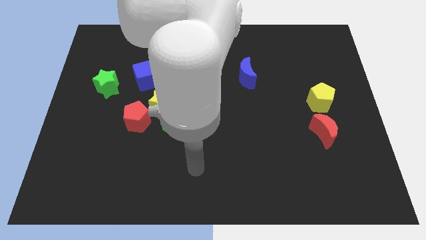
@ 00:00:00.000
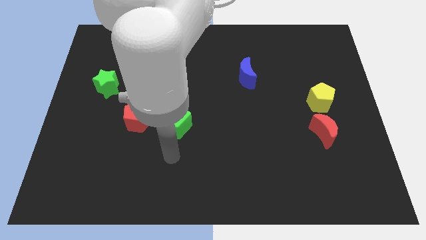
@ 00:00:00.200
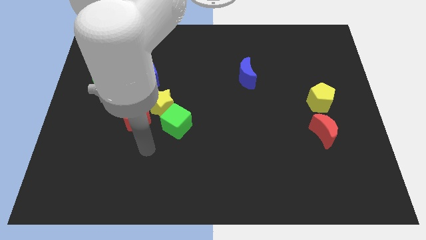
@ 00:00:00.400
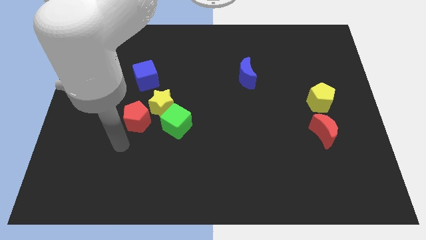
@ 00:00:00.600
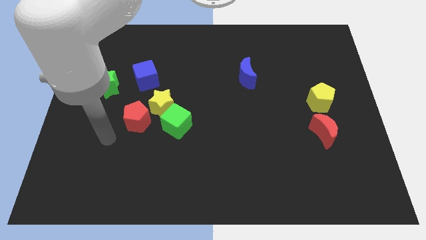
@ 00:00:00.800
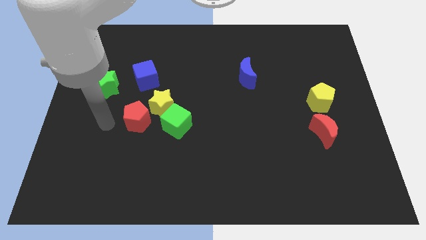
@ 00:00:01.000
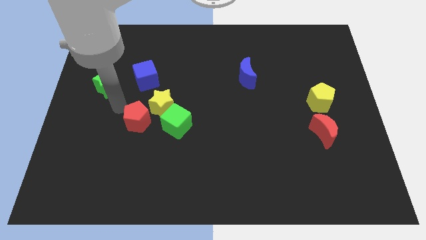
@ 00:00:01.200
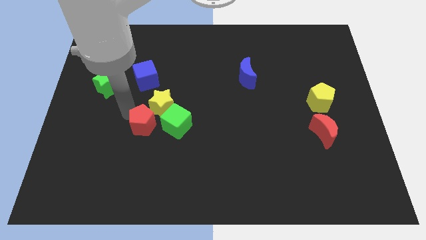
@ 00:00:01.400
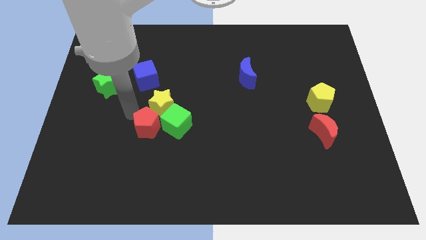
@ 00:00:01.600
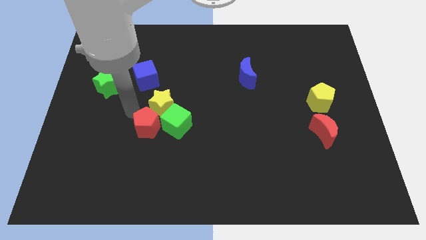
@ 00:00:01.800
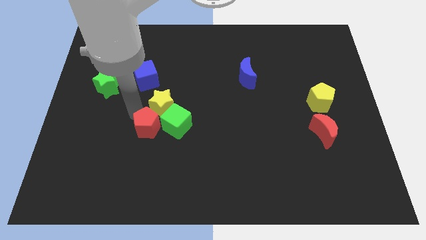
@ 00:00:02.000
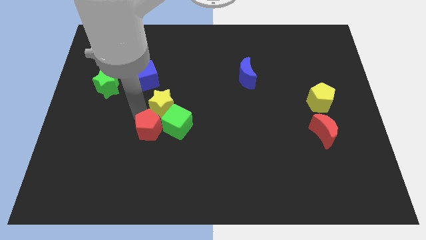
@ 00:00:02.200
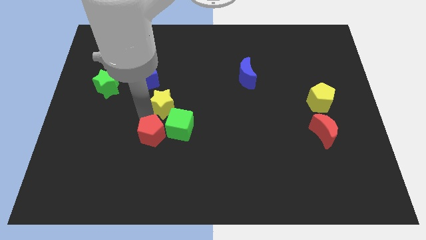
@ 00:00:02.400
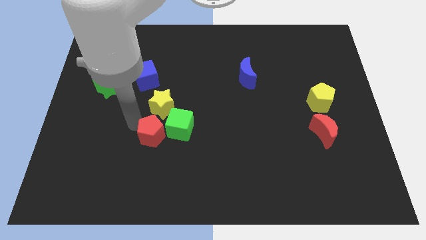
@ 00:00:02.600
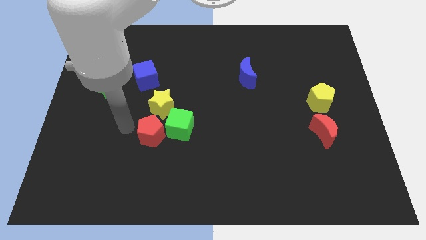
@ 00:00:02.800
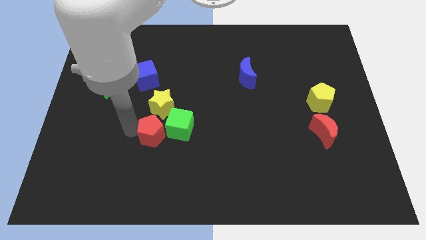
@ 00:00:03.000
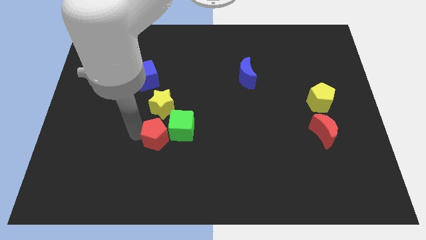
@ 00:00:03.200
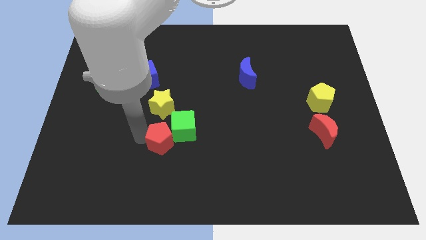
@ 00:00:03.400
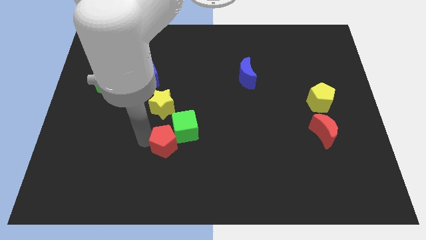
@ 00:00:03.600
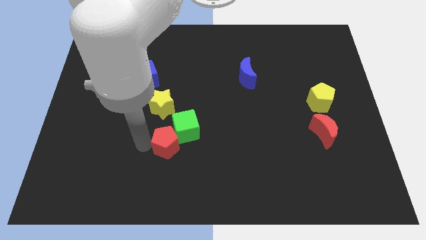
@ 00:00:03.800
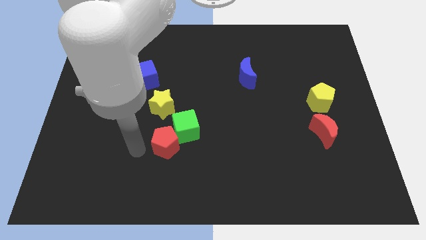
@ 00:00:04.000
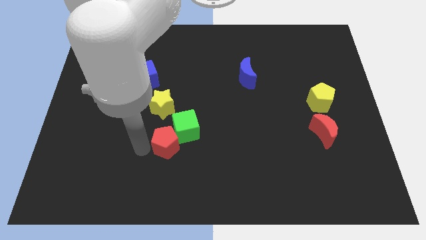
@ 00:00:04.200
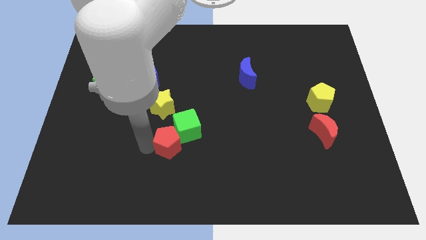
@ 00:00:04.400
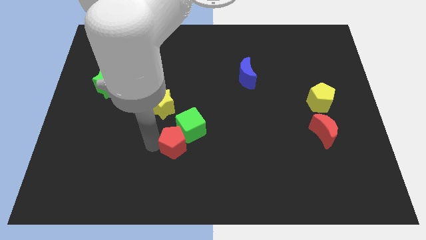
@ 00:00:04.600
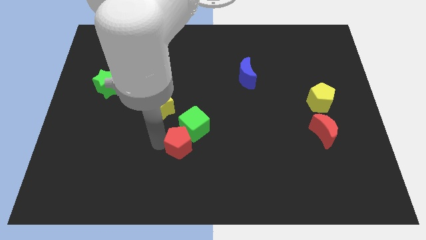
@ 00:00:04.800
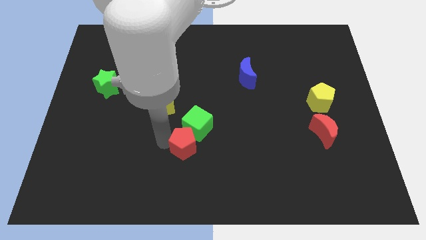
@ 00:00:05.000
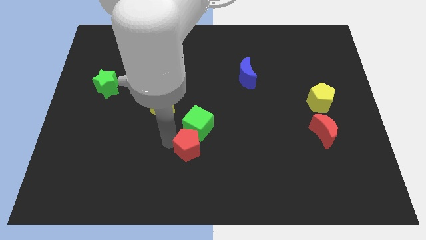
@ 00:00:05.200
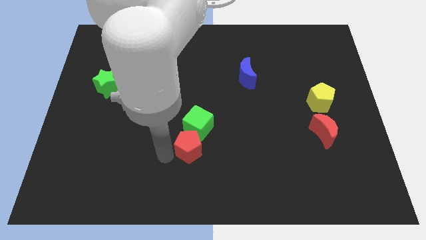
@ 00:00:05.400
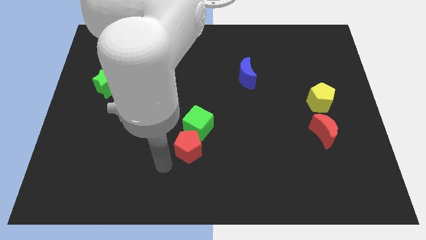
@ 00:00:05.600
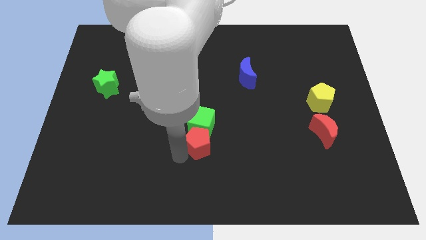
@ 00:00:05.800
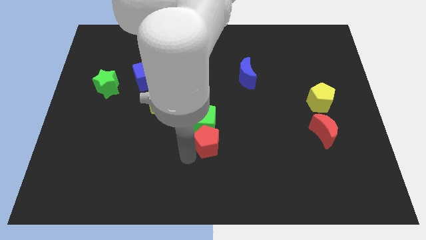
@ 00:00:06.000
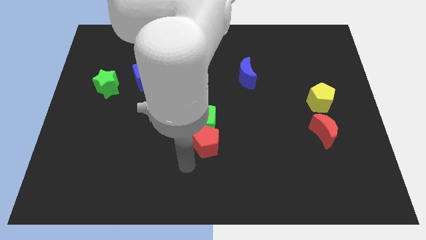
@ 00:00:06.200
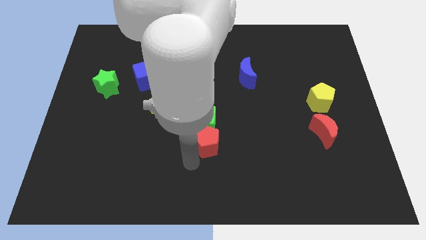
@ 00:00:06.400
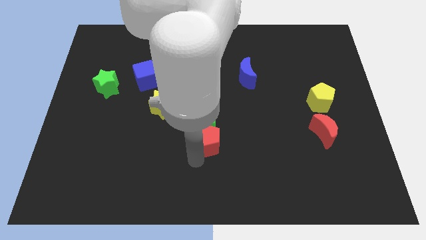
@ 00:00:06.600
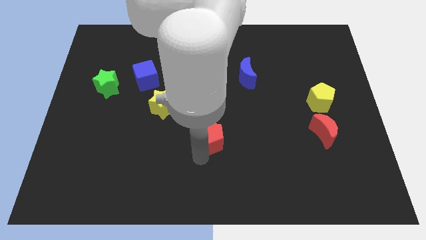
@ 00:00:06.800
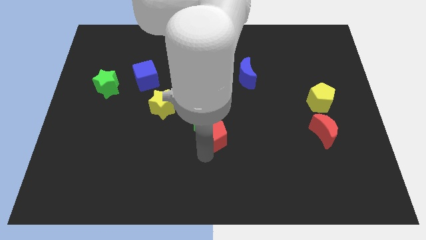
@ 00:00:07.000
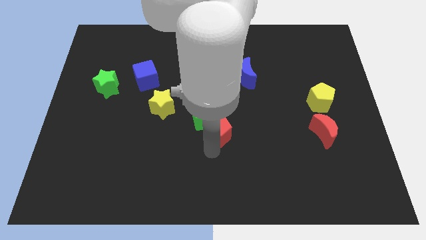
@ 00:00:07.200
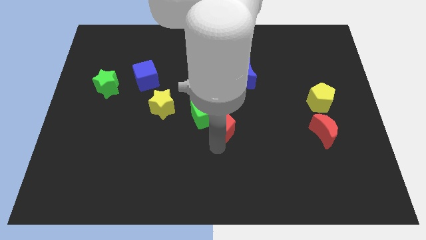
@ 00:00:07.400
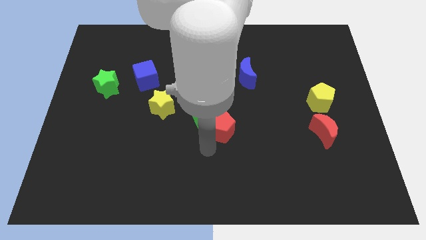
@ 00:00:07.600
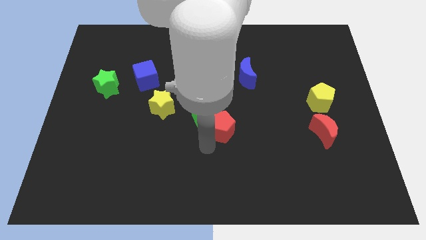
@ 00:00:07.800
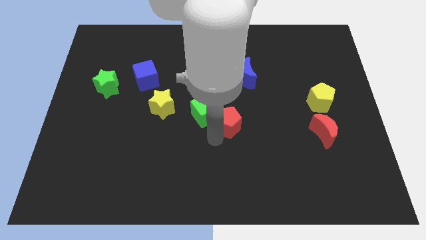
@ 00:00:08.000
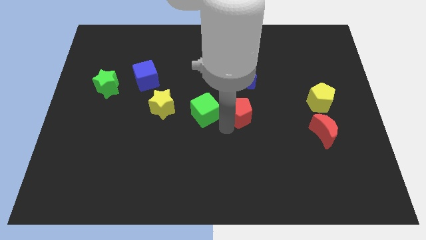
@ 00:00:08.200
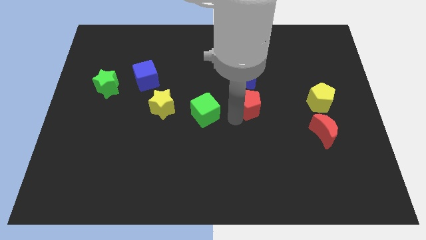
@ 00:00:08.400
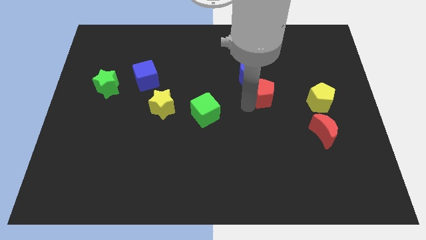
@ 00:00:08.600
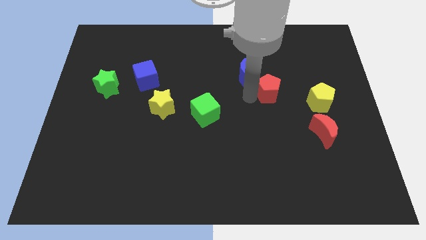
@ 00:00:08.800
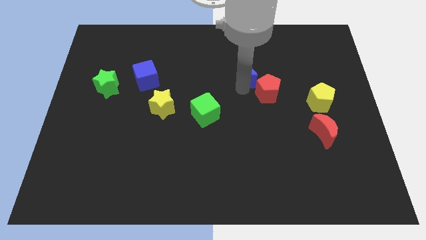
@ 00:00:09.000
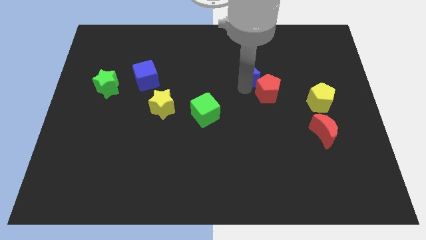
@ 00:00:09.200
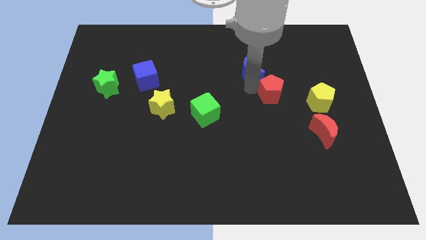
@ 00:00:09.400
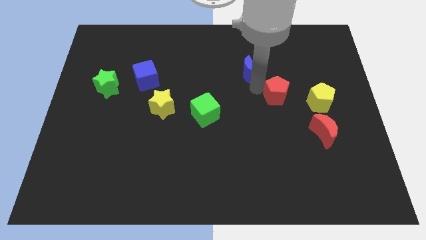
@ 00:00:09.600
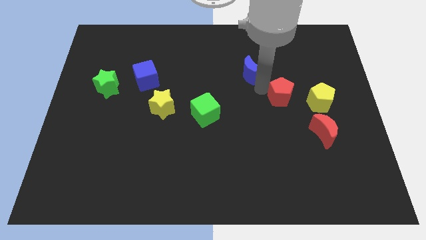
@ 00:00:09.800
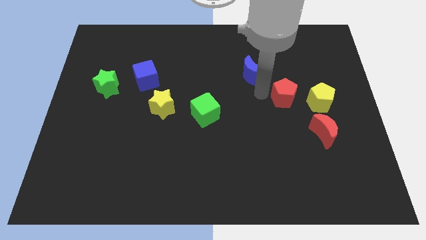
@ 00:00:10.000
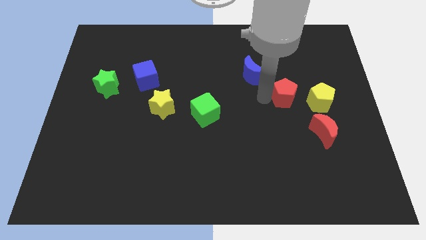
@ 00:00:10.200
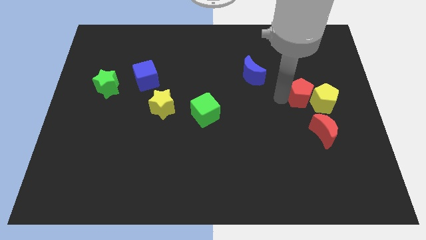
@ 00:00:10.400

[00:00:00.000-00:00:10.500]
put the red pentagon to the top of the red moon

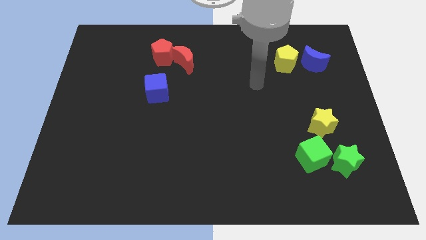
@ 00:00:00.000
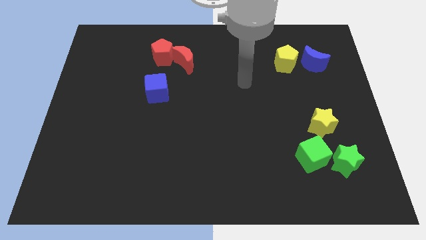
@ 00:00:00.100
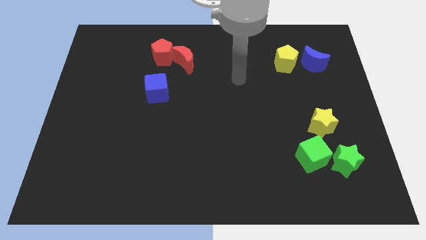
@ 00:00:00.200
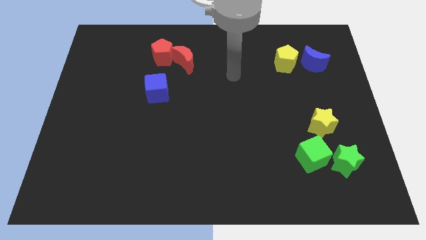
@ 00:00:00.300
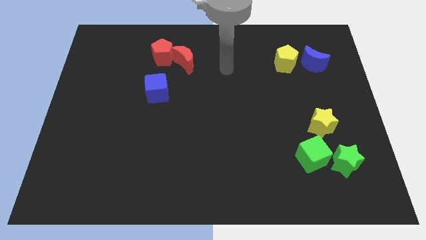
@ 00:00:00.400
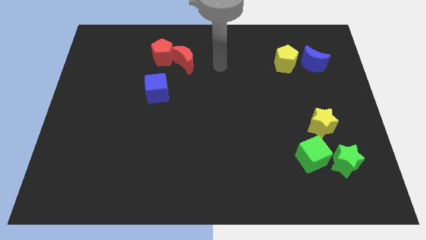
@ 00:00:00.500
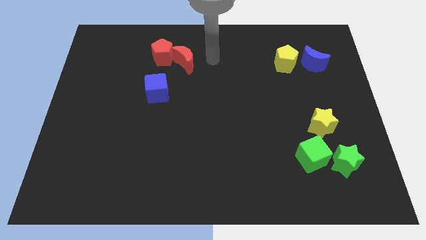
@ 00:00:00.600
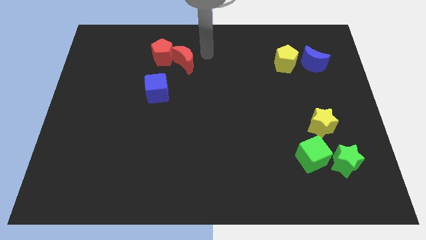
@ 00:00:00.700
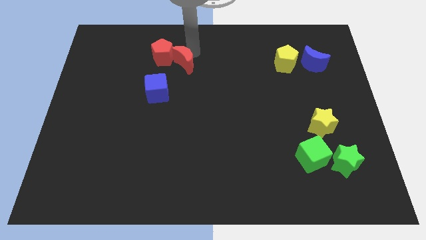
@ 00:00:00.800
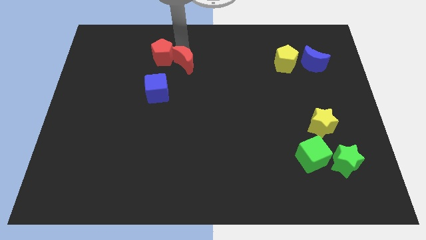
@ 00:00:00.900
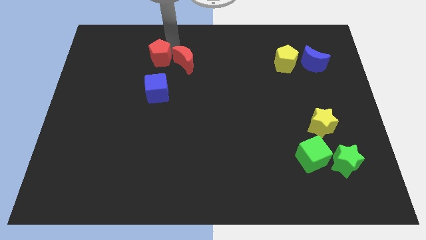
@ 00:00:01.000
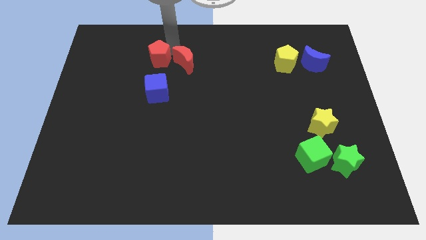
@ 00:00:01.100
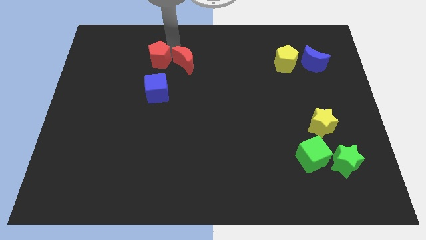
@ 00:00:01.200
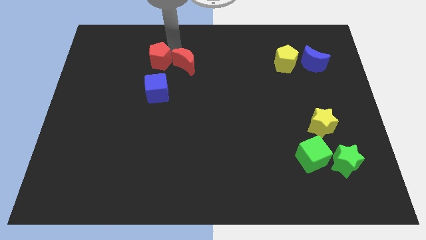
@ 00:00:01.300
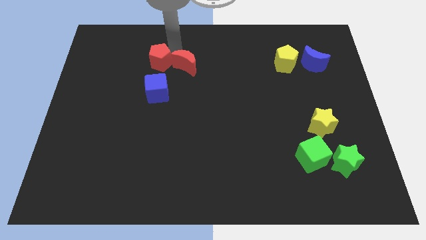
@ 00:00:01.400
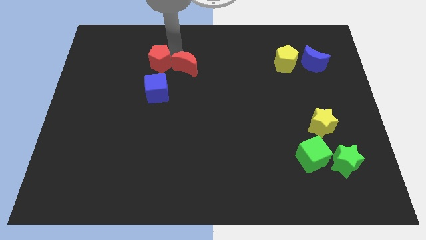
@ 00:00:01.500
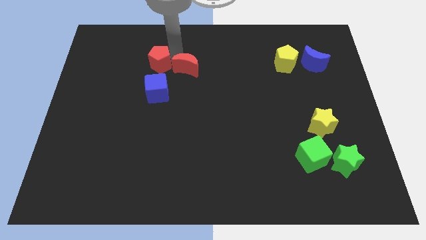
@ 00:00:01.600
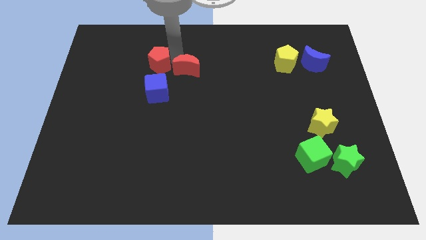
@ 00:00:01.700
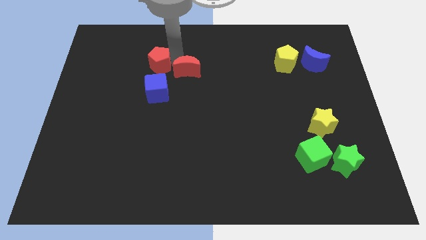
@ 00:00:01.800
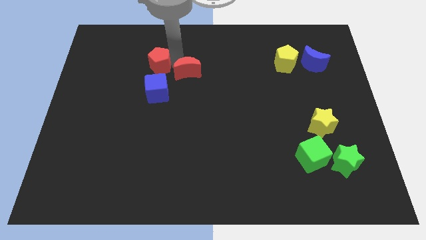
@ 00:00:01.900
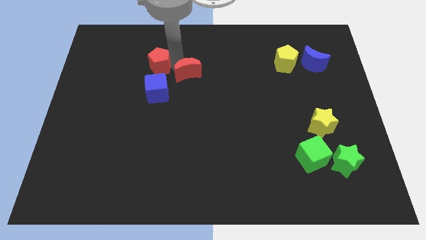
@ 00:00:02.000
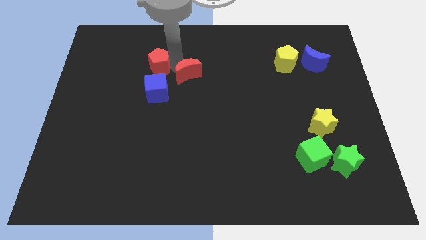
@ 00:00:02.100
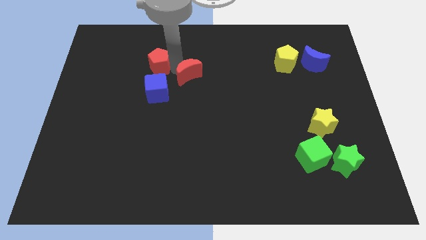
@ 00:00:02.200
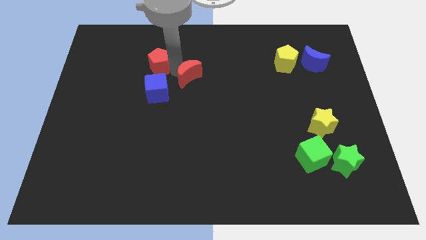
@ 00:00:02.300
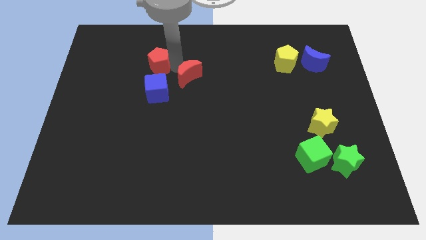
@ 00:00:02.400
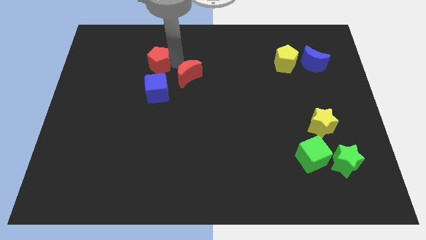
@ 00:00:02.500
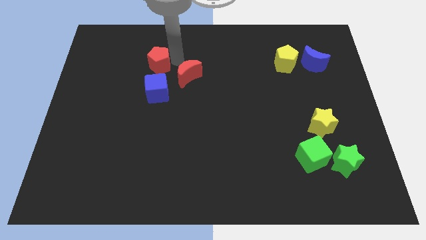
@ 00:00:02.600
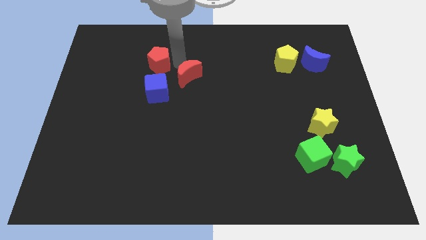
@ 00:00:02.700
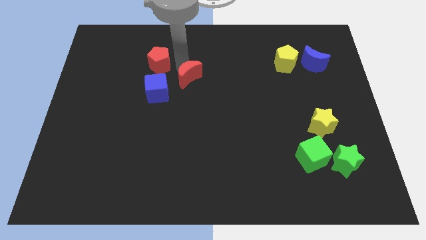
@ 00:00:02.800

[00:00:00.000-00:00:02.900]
push the red moon right of the blue cube
